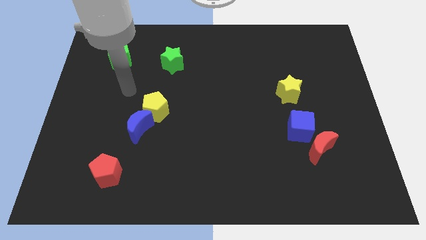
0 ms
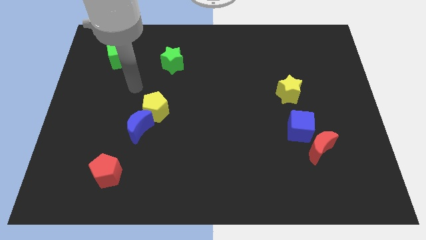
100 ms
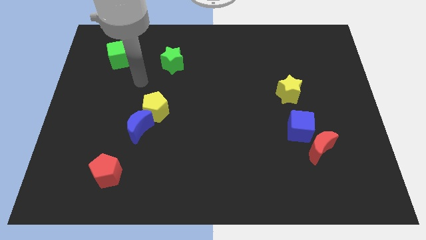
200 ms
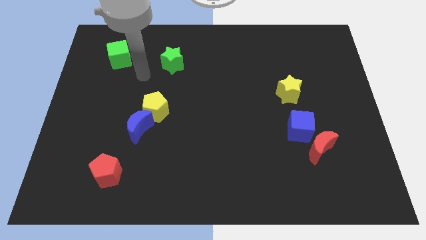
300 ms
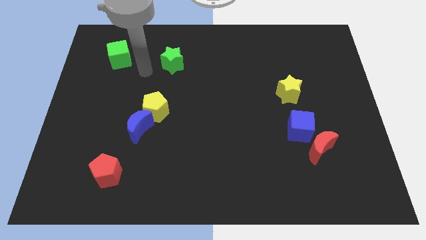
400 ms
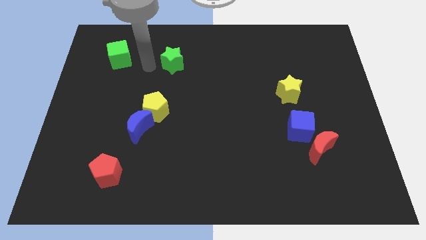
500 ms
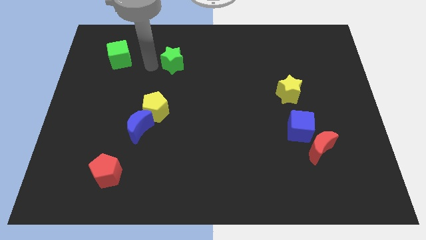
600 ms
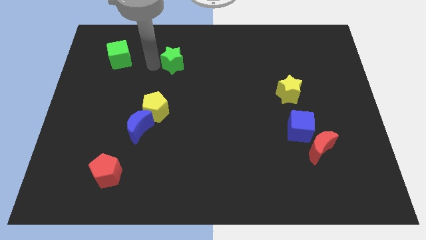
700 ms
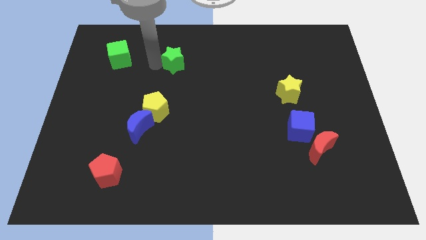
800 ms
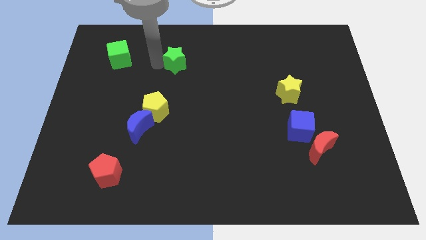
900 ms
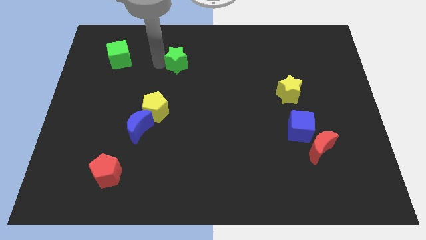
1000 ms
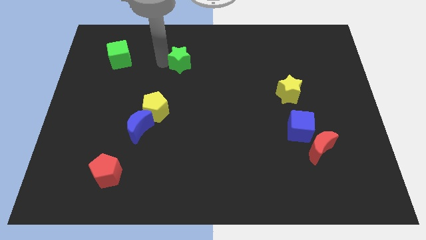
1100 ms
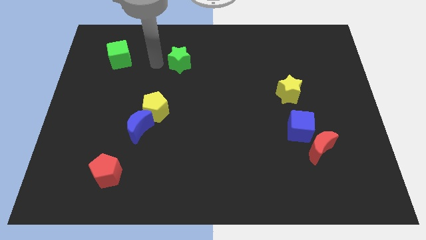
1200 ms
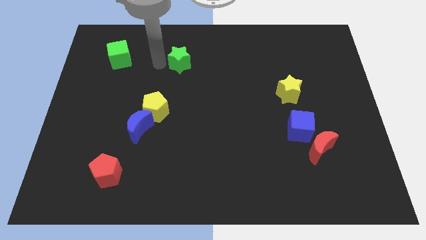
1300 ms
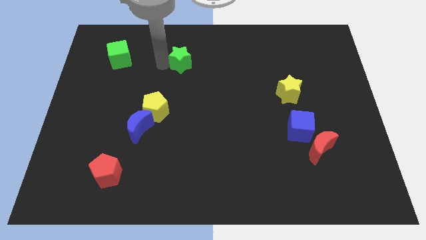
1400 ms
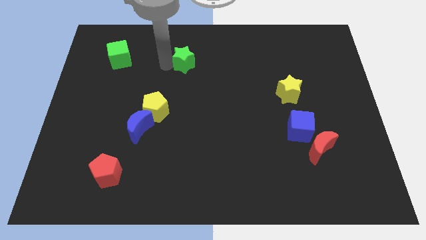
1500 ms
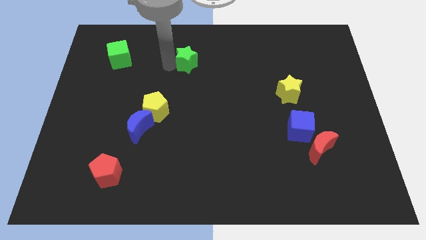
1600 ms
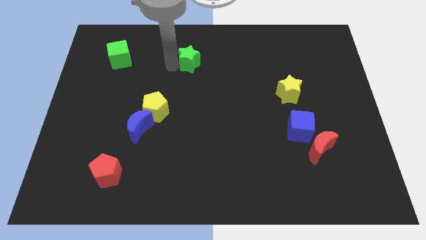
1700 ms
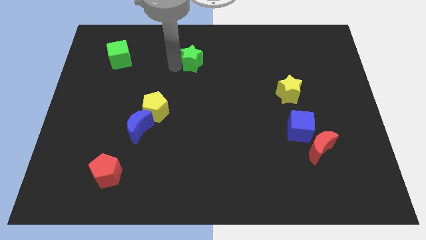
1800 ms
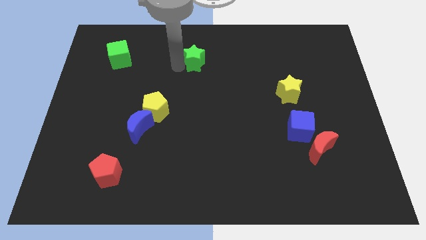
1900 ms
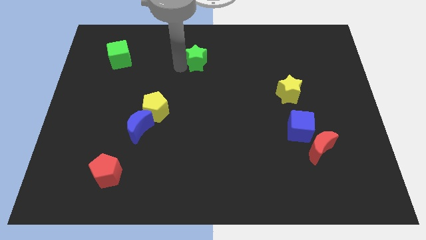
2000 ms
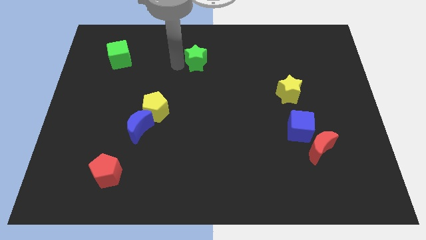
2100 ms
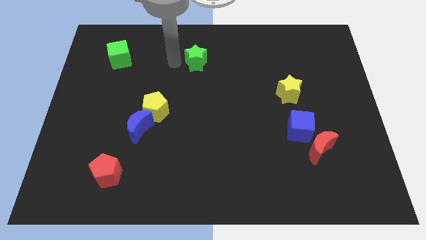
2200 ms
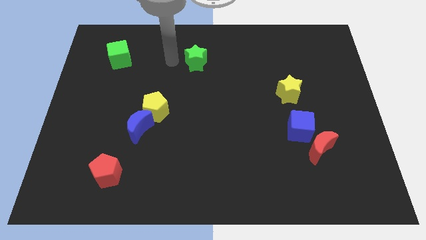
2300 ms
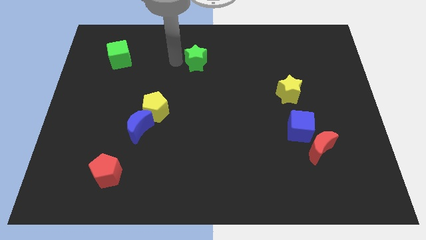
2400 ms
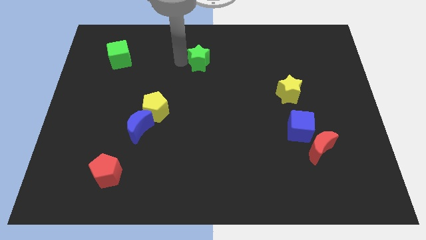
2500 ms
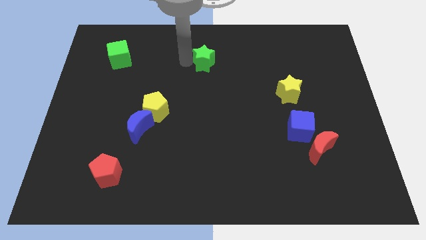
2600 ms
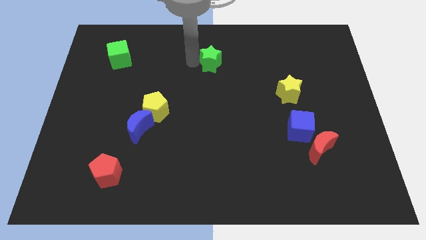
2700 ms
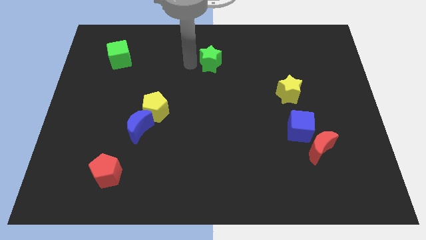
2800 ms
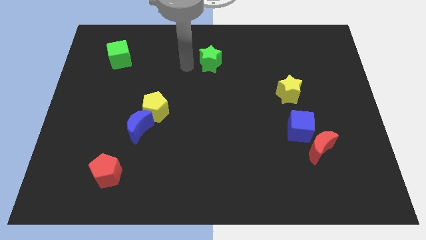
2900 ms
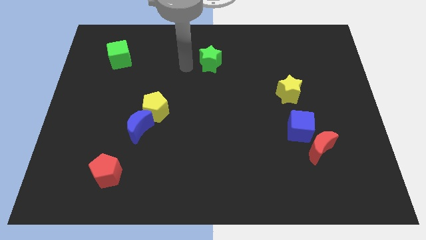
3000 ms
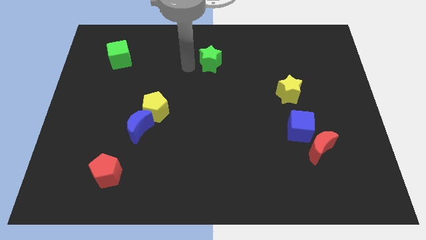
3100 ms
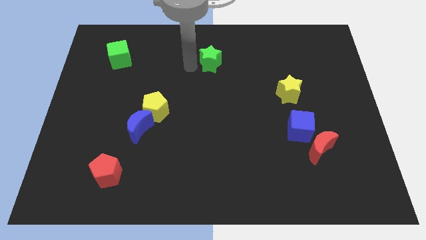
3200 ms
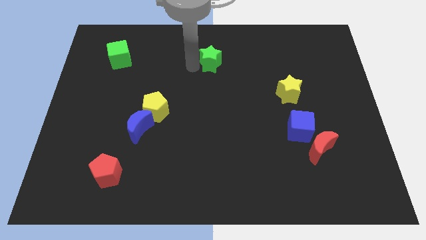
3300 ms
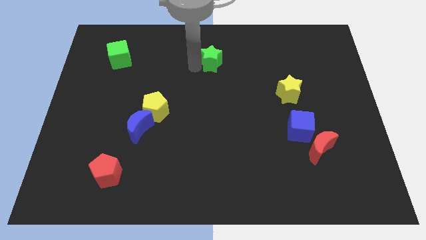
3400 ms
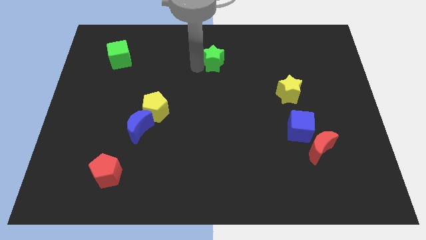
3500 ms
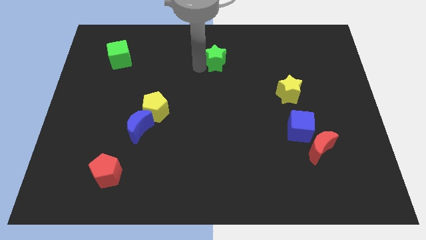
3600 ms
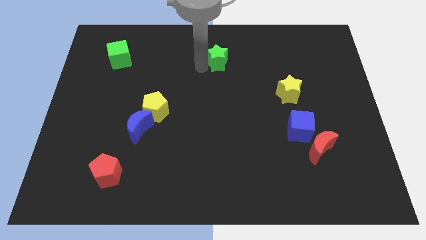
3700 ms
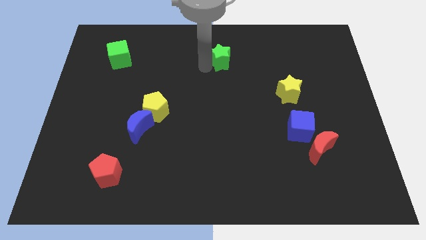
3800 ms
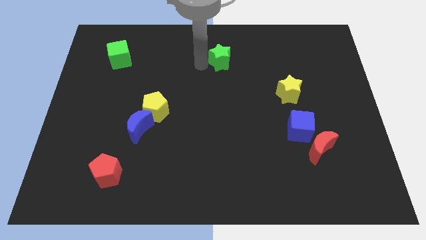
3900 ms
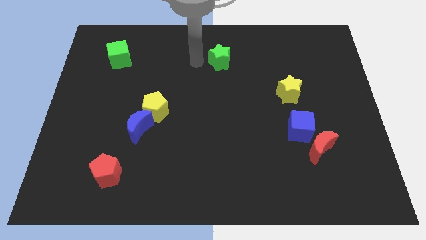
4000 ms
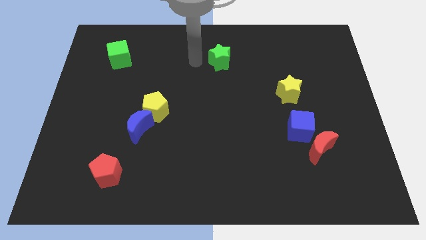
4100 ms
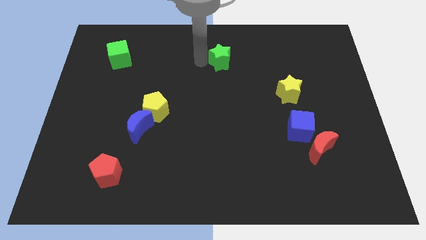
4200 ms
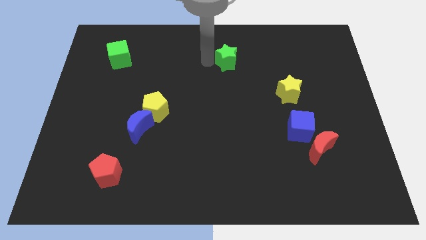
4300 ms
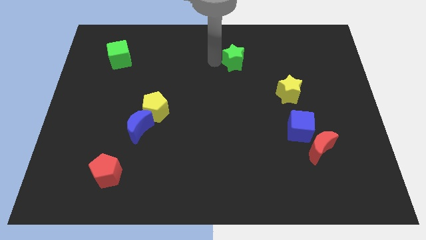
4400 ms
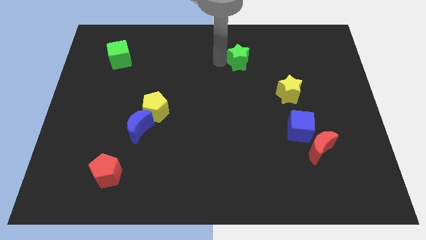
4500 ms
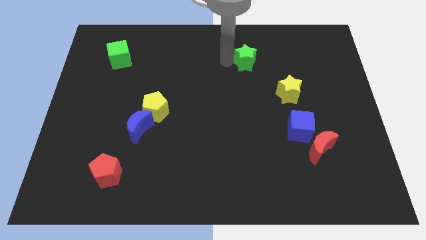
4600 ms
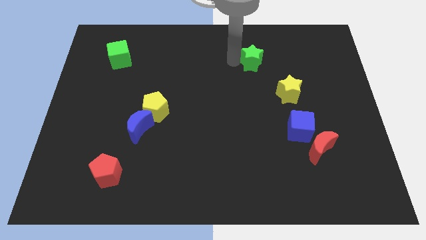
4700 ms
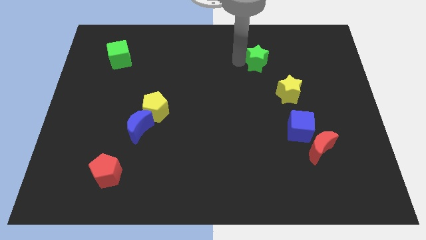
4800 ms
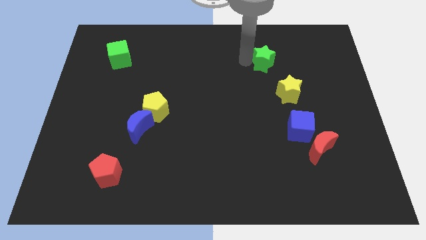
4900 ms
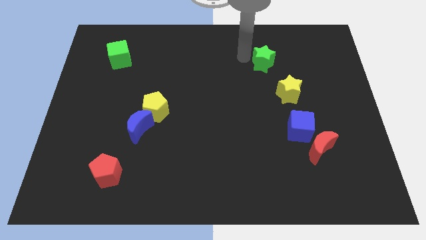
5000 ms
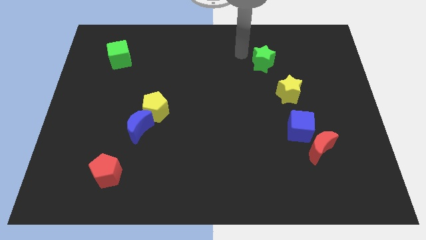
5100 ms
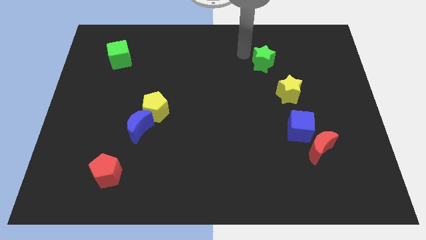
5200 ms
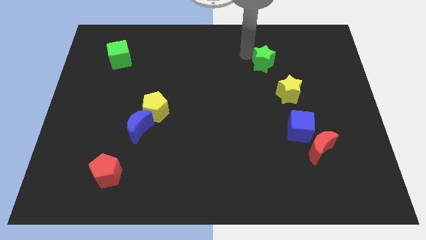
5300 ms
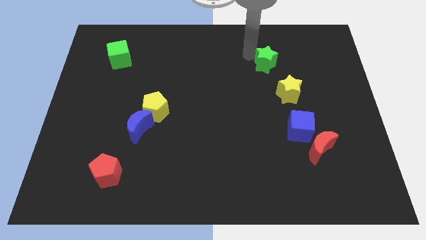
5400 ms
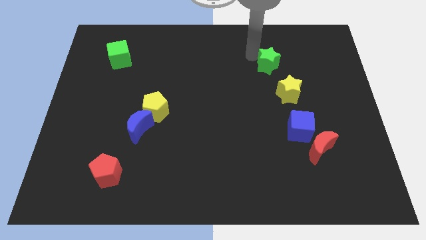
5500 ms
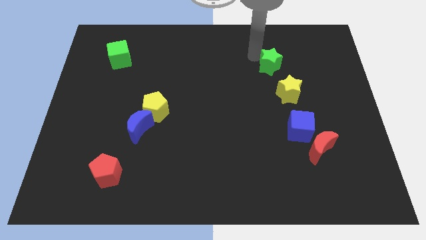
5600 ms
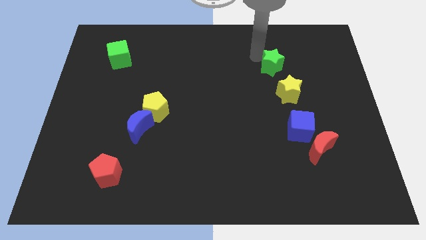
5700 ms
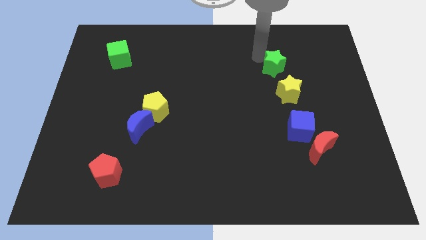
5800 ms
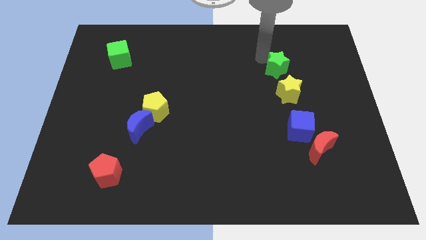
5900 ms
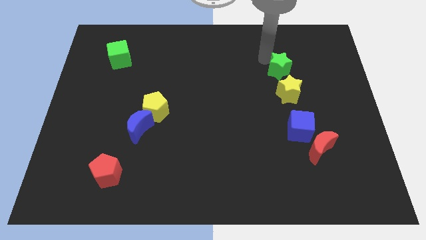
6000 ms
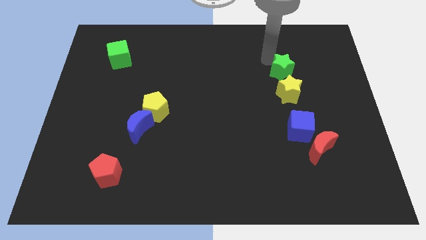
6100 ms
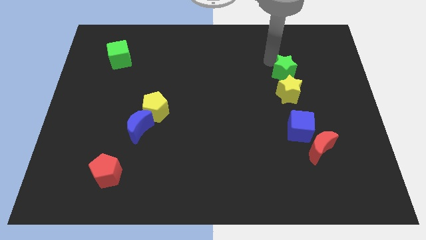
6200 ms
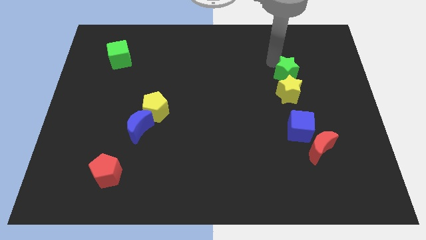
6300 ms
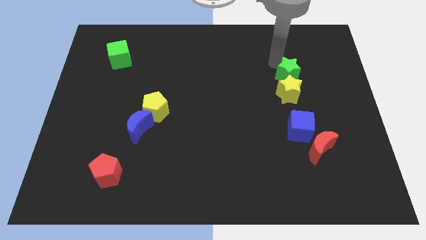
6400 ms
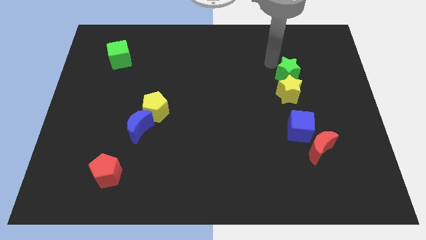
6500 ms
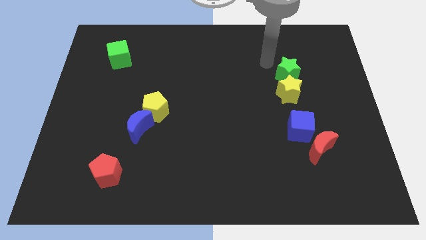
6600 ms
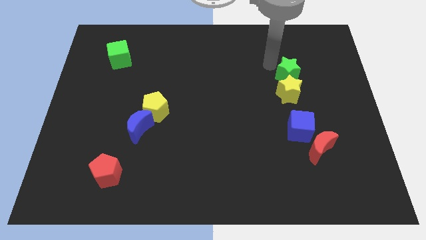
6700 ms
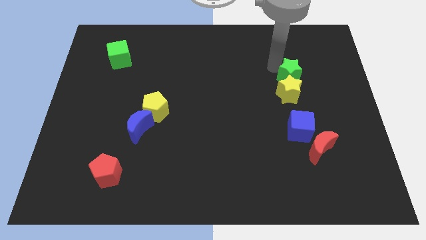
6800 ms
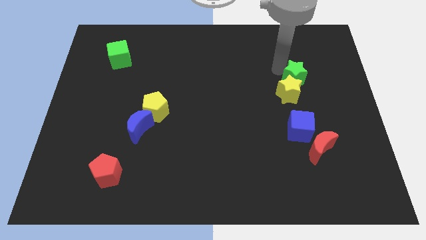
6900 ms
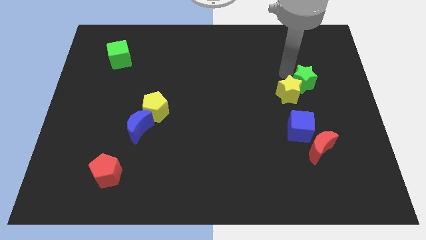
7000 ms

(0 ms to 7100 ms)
push the green star to the right of the yellow star
